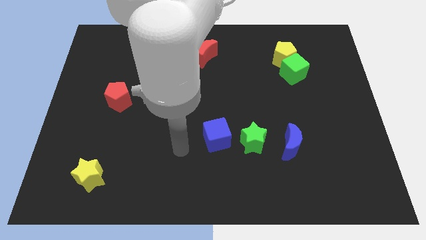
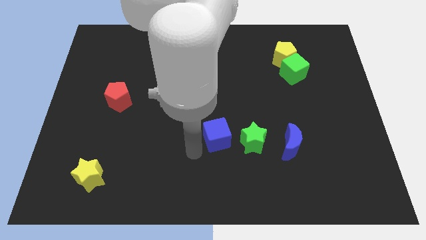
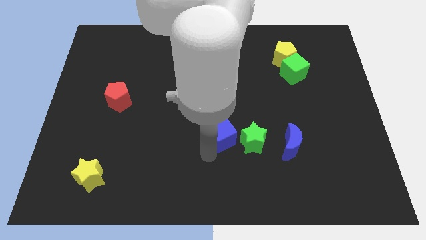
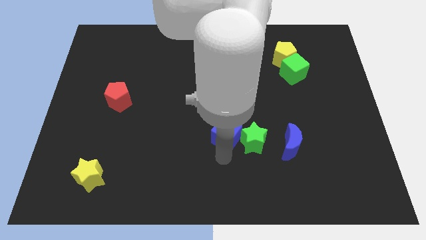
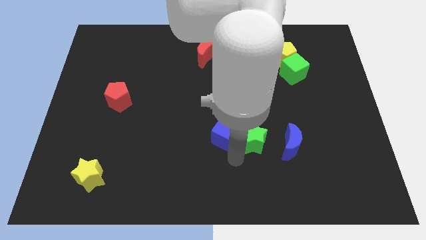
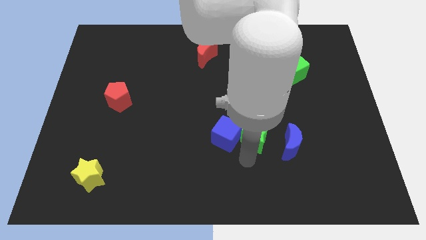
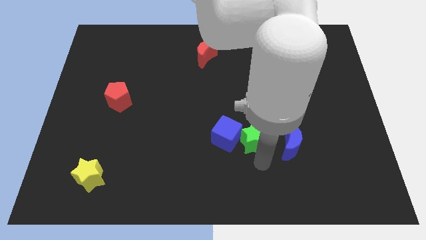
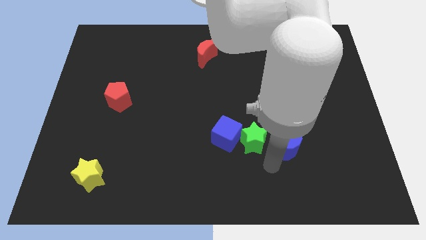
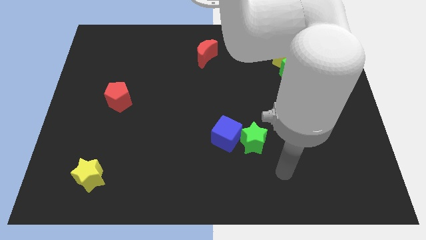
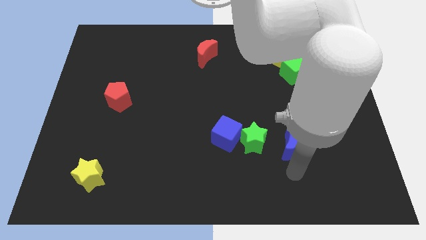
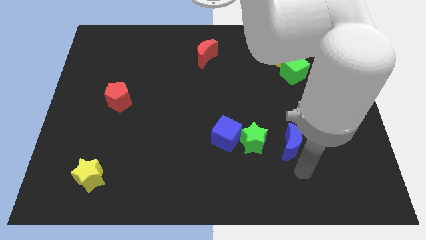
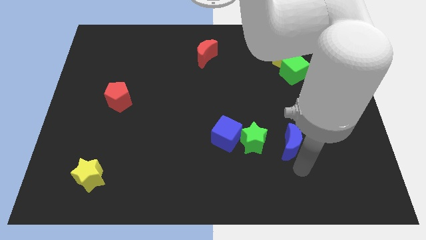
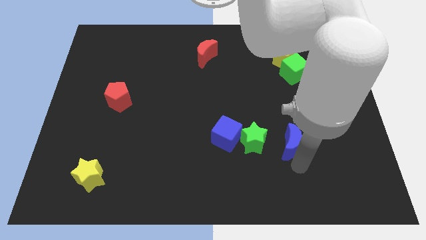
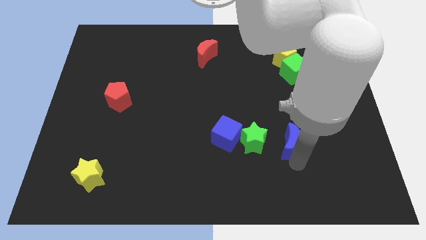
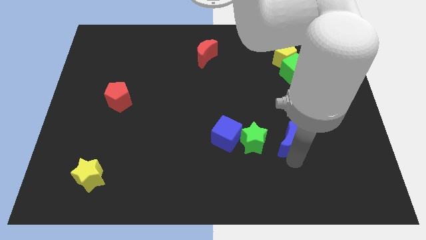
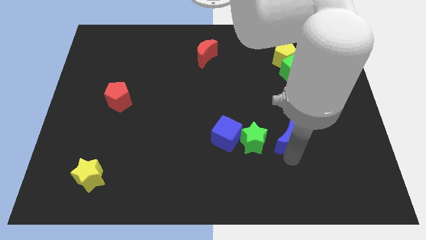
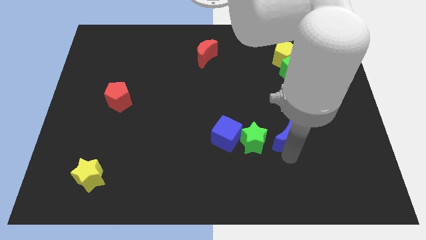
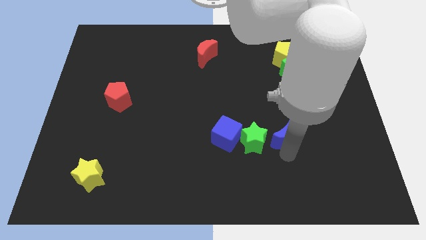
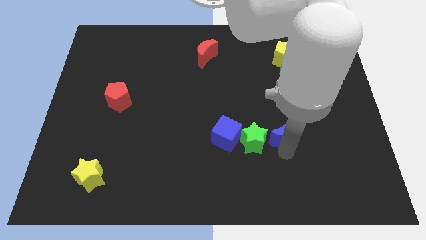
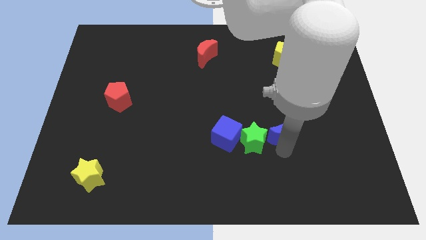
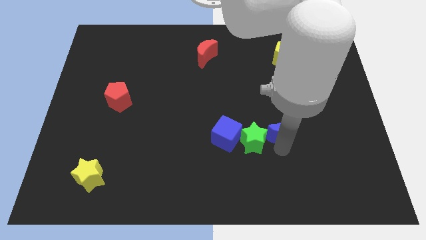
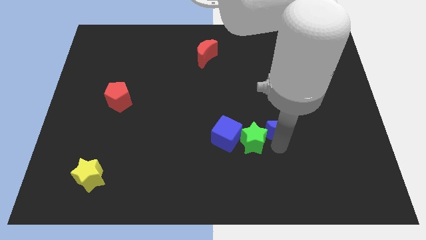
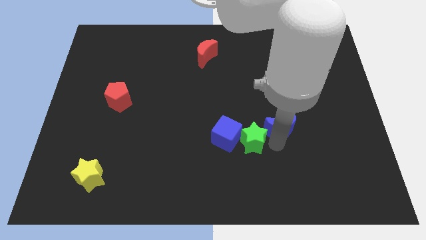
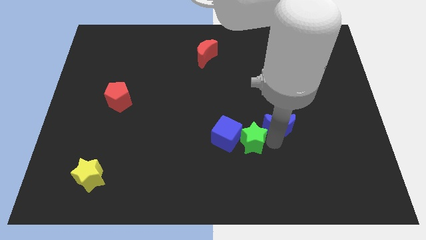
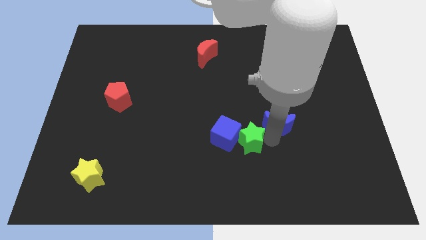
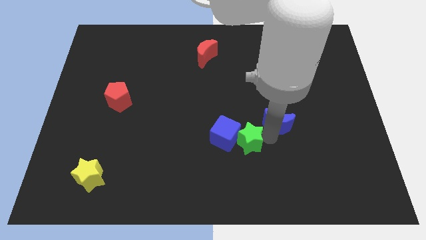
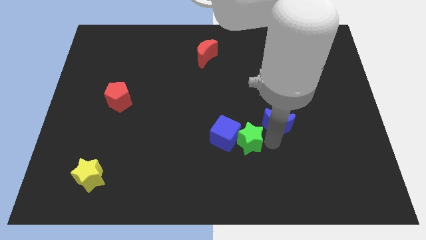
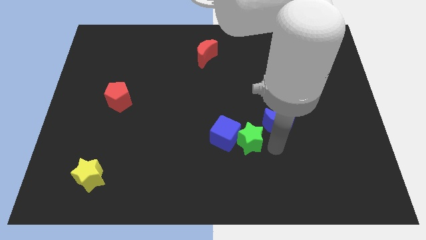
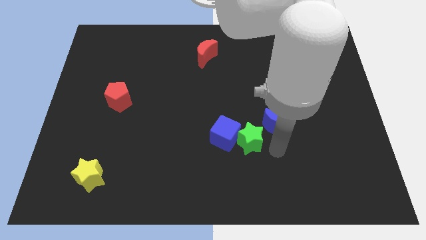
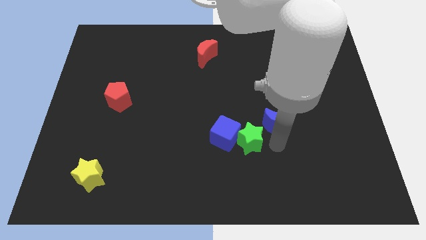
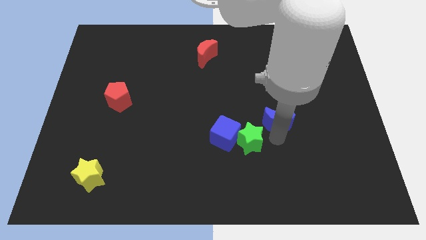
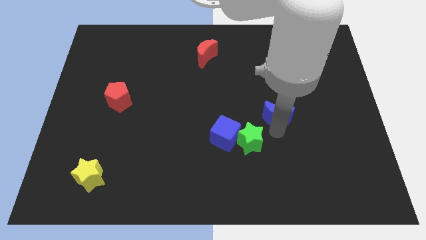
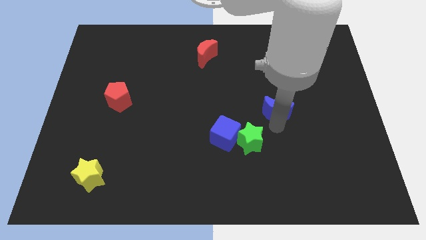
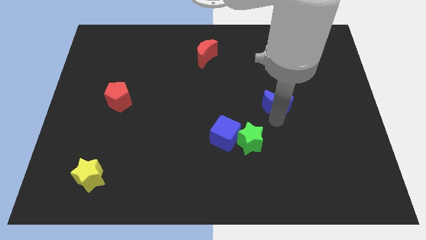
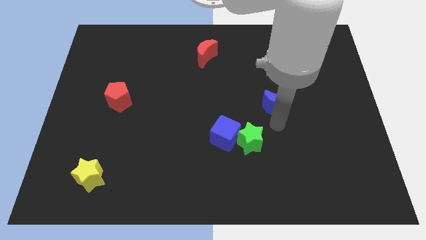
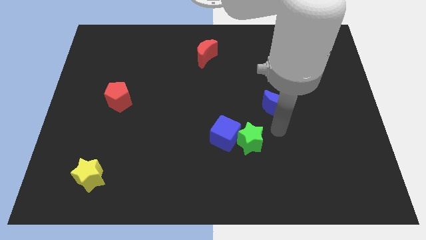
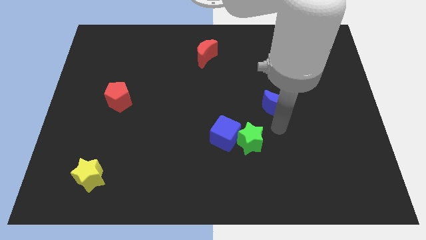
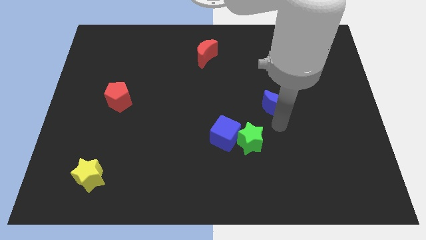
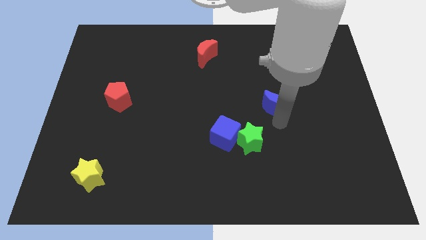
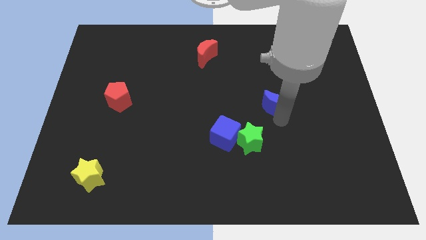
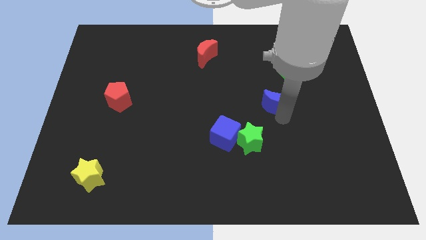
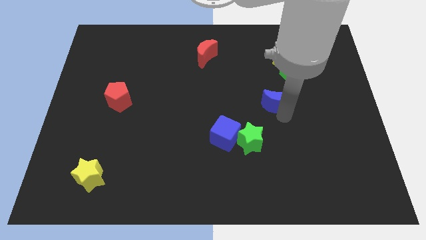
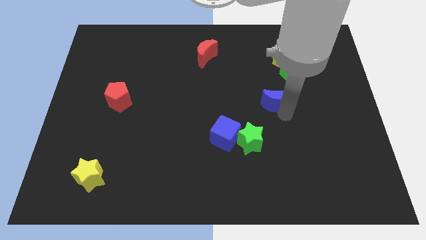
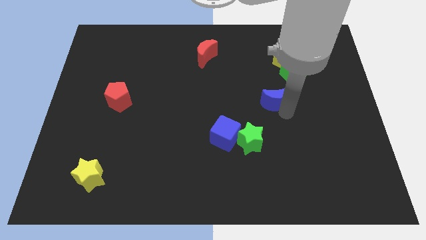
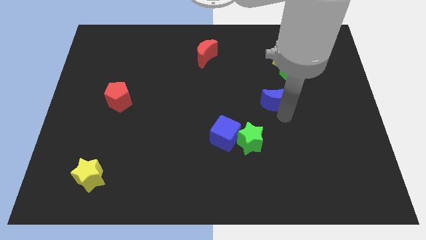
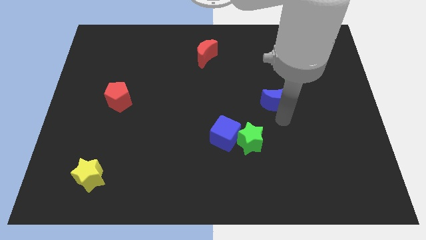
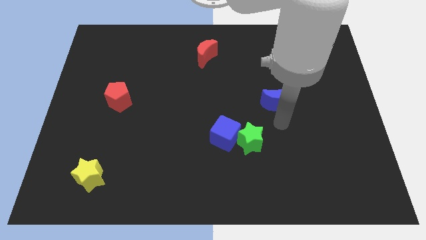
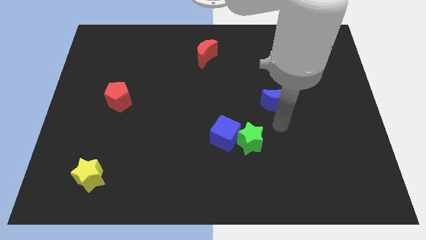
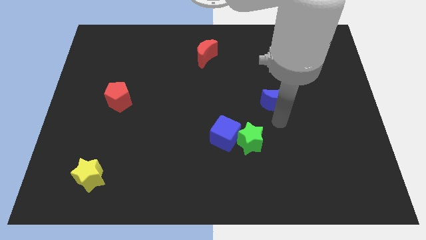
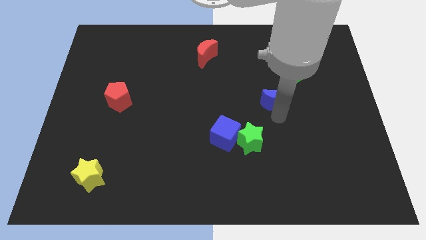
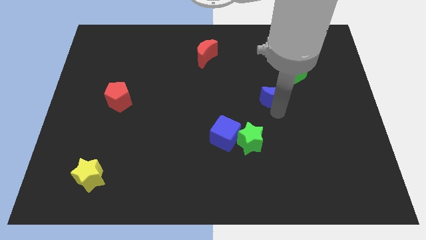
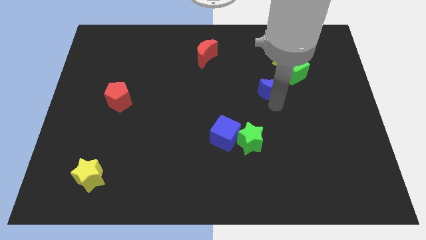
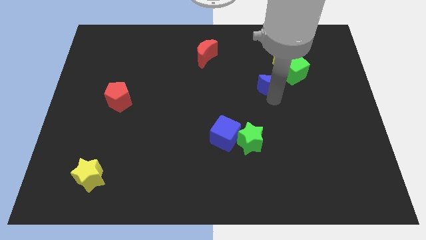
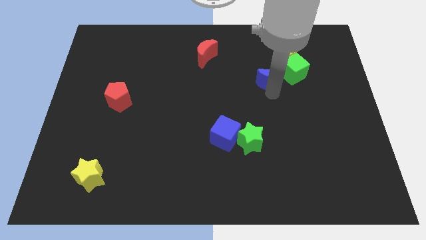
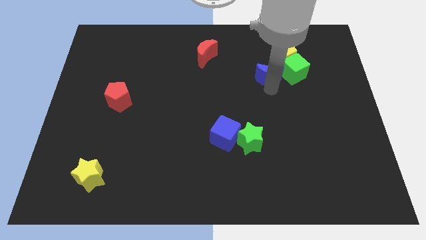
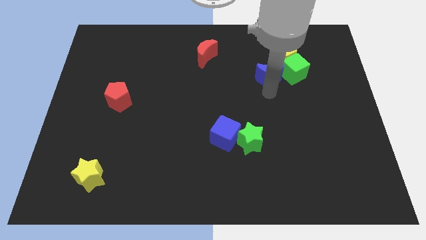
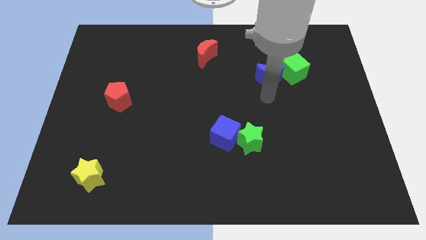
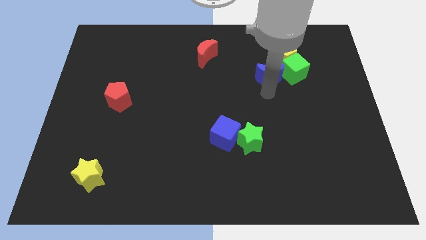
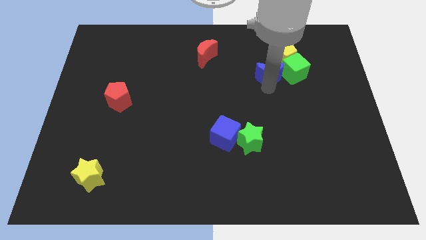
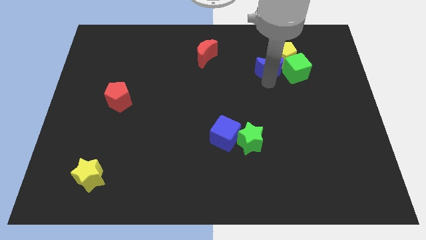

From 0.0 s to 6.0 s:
push the blue moon to the top left of the green cube

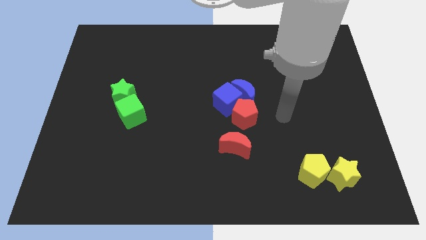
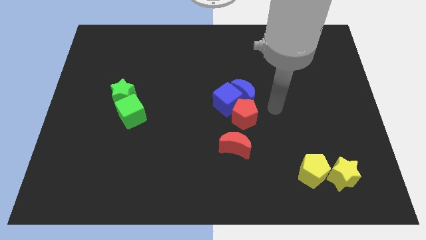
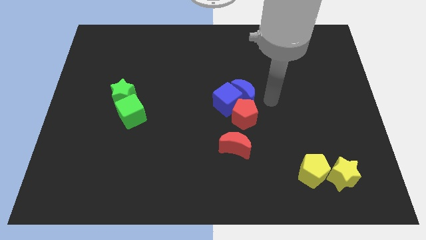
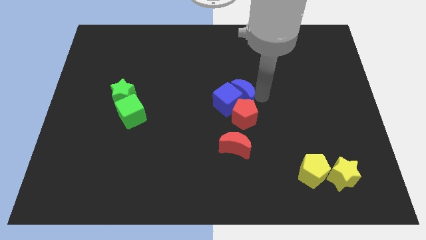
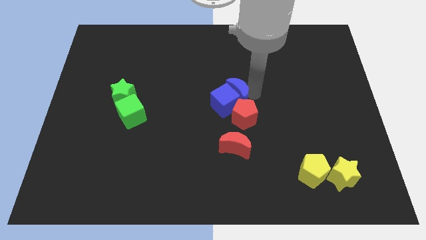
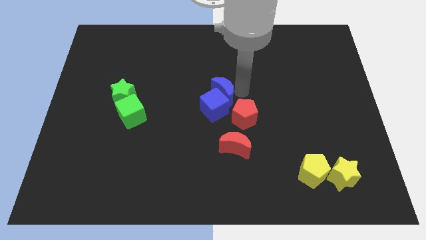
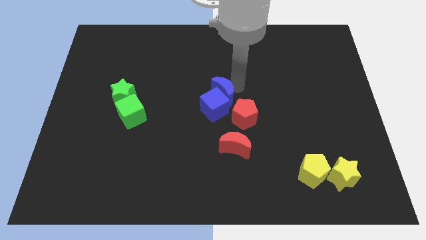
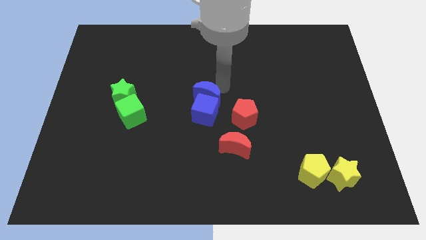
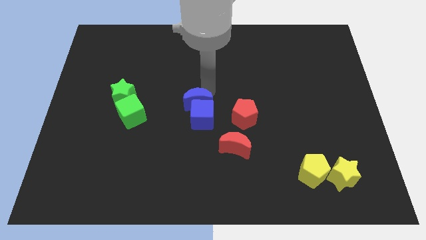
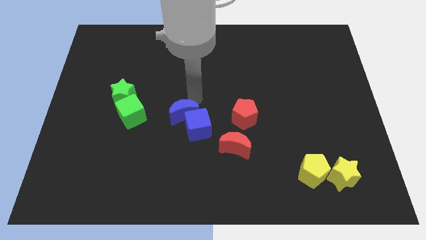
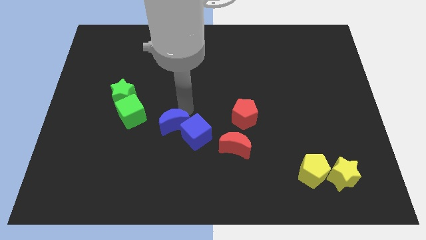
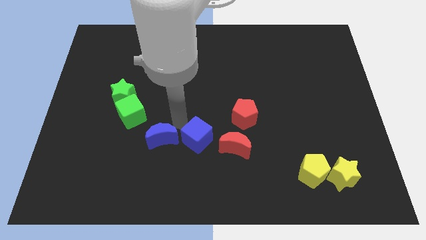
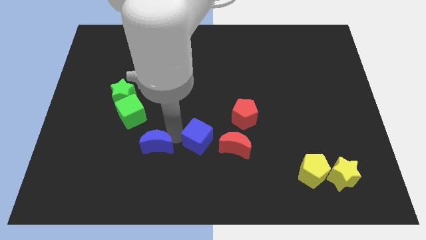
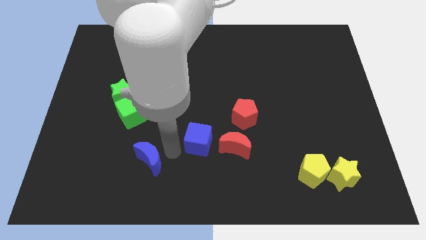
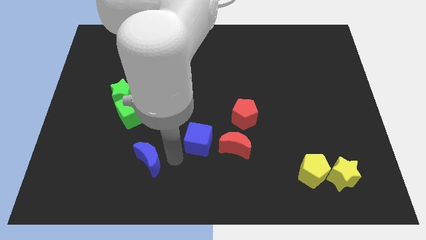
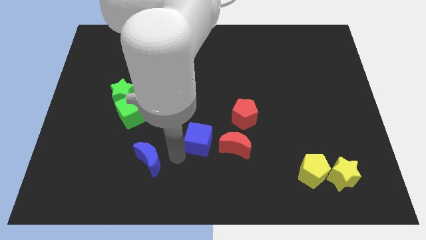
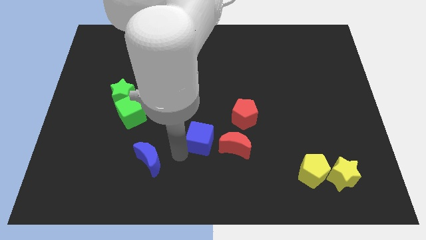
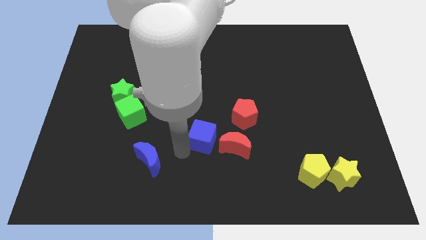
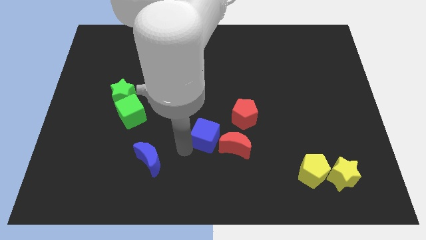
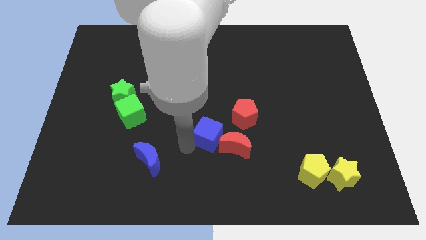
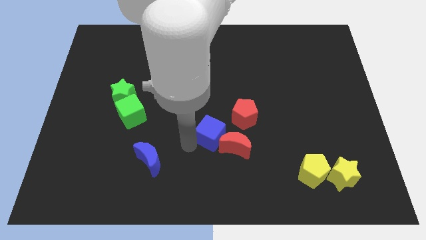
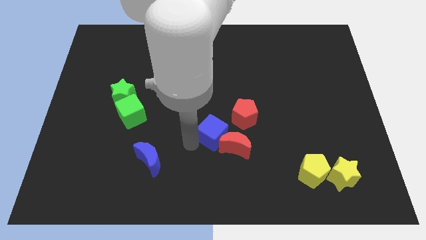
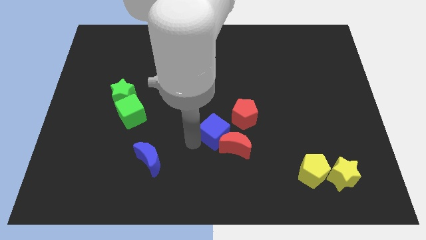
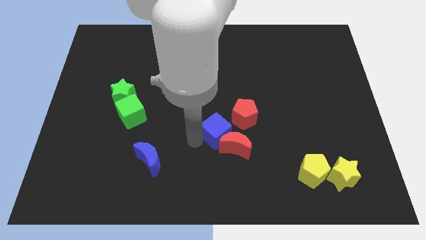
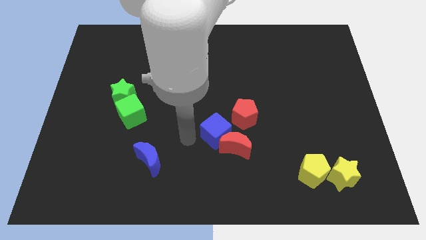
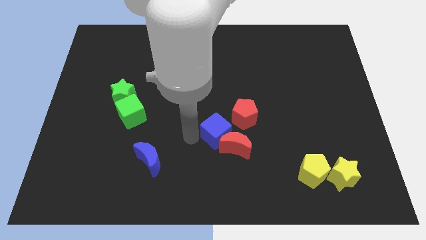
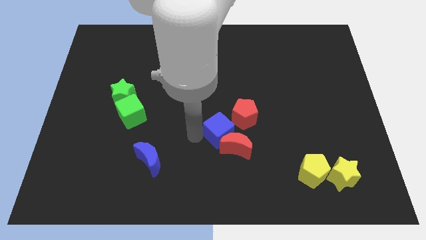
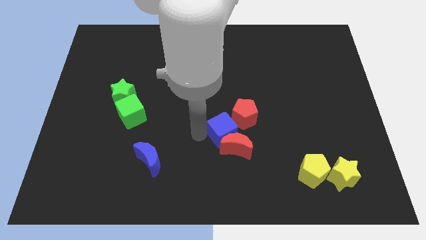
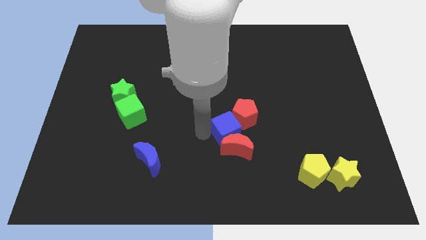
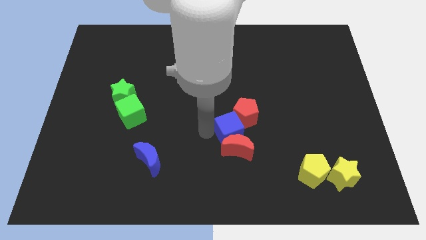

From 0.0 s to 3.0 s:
put the blue cube to the top right of the red moon
